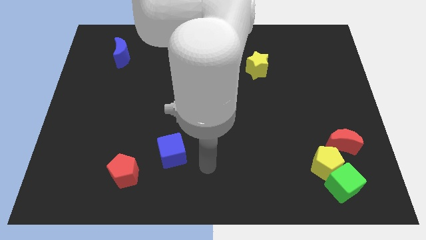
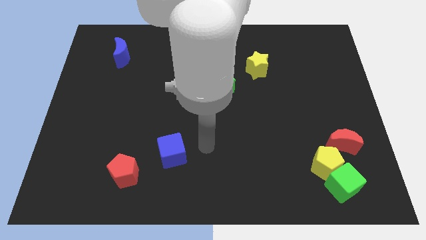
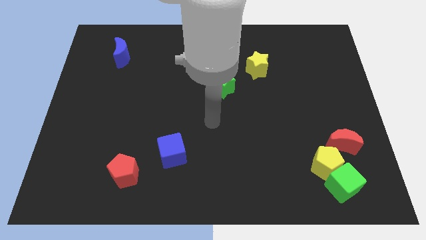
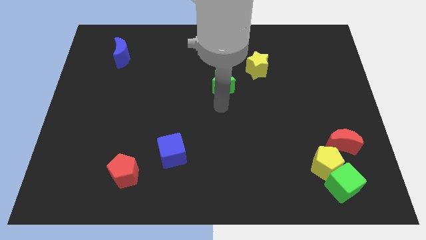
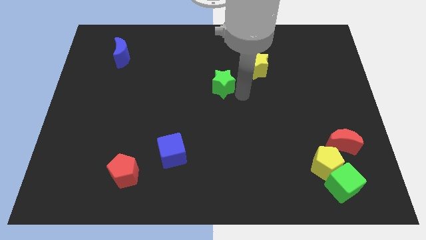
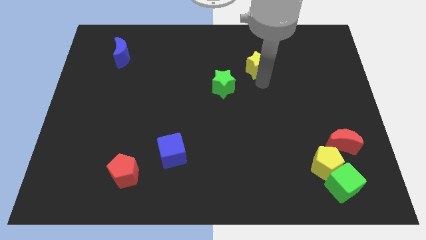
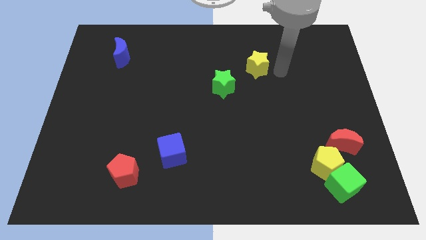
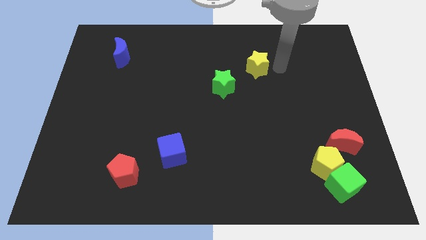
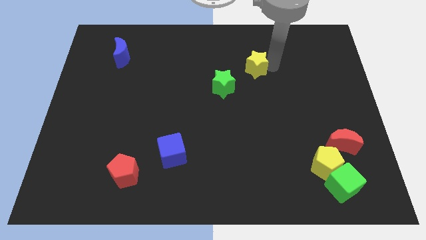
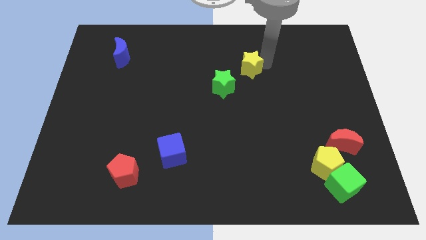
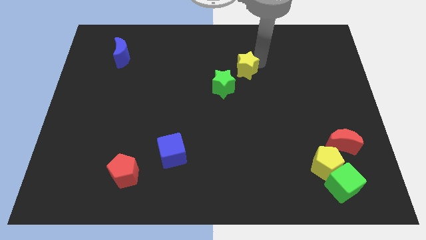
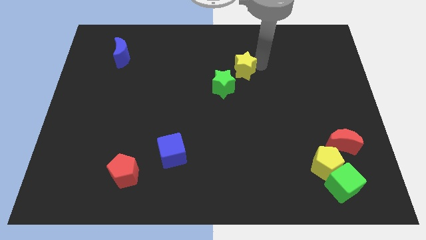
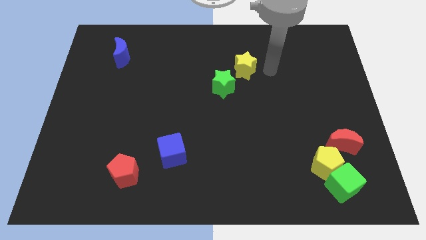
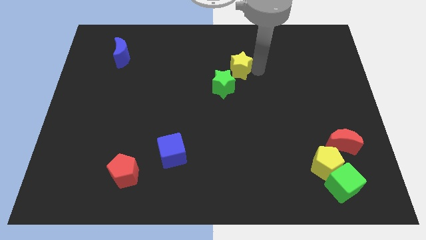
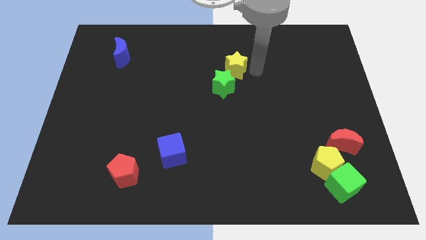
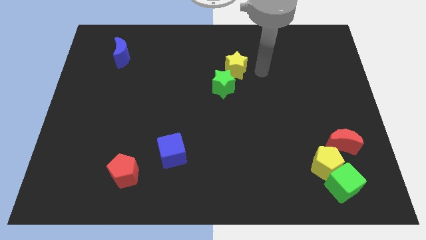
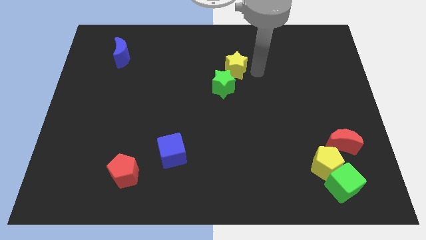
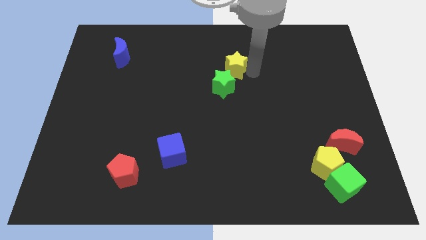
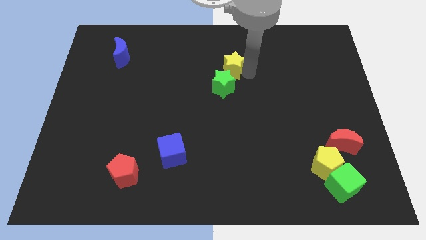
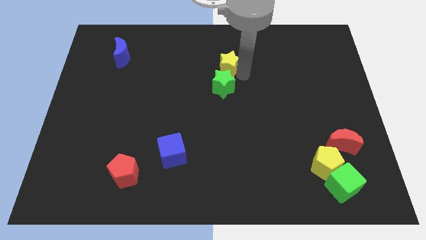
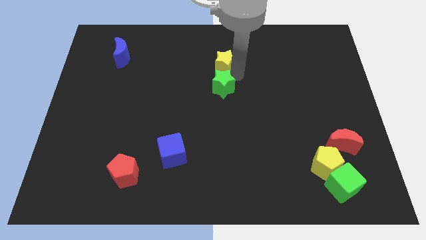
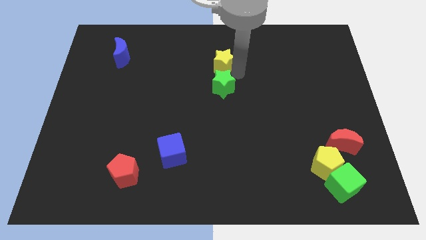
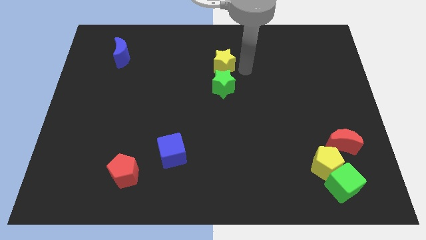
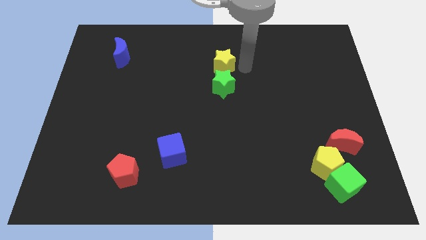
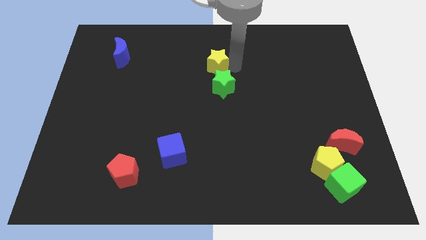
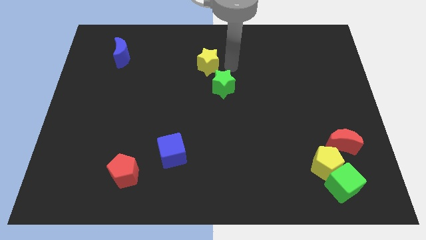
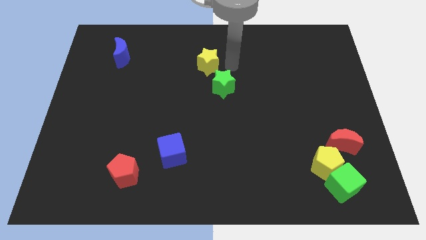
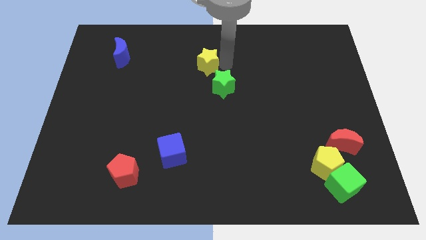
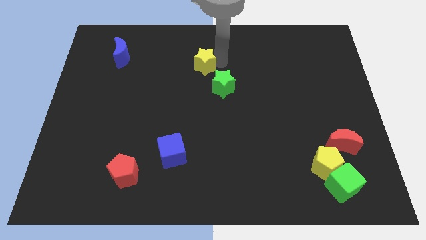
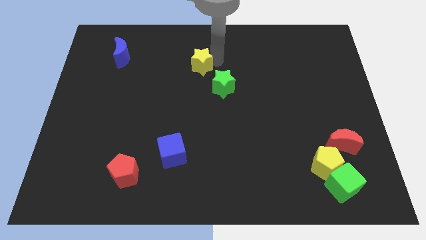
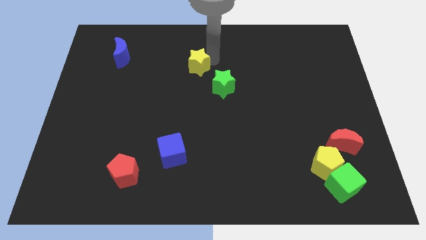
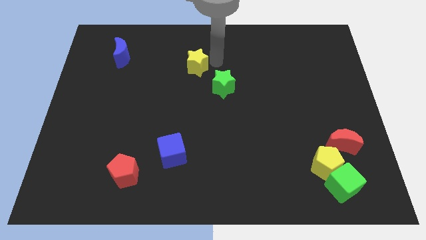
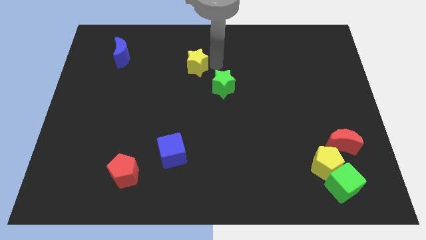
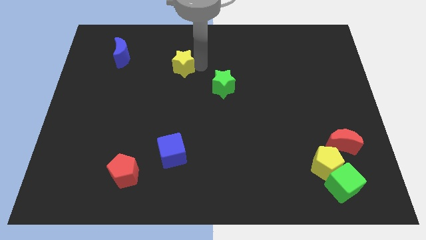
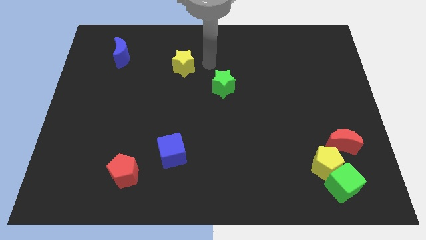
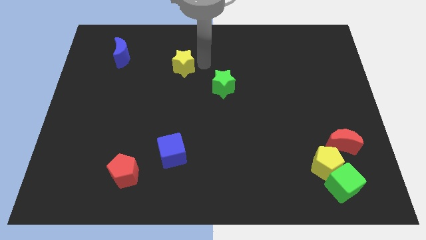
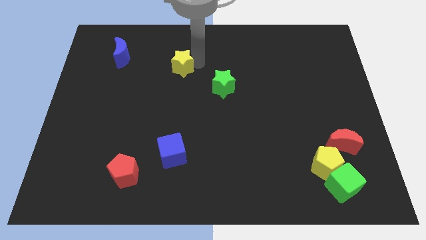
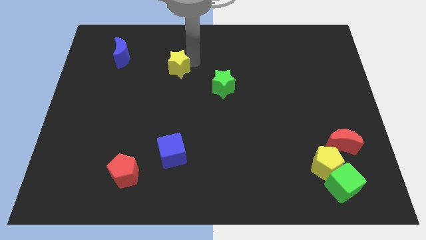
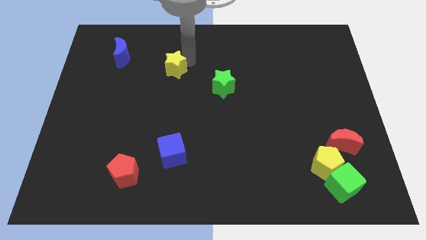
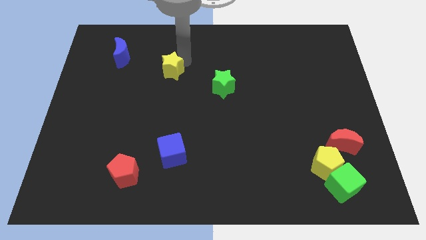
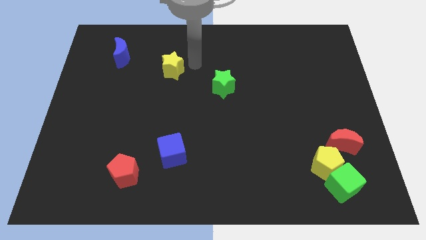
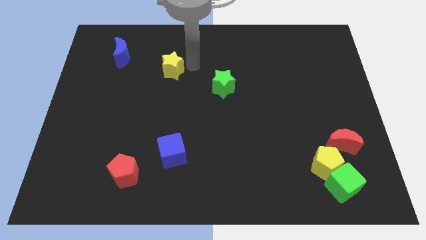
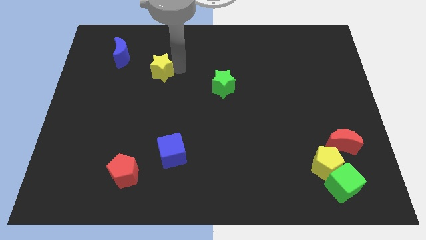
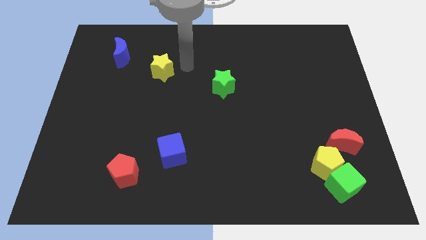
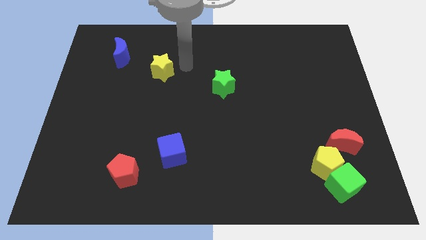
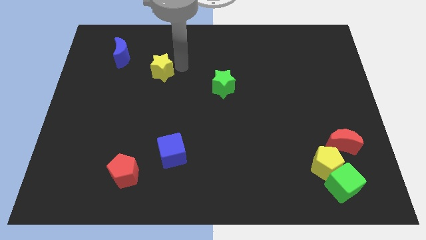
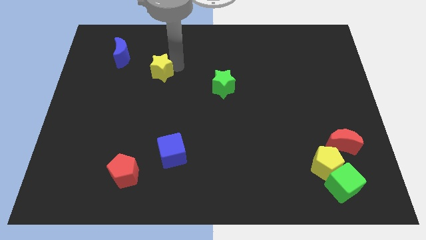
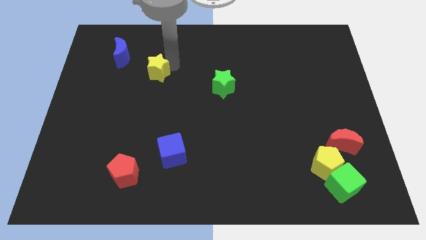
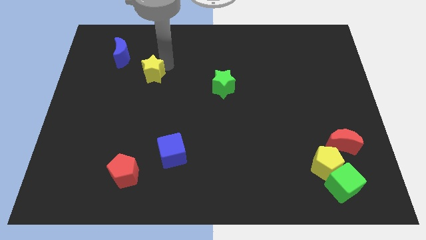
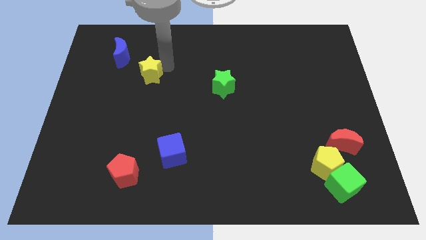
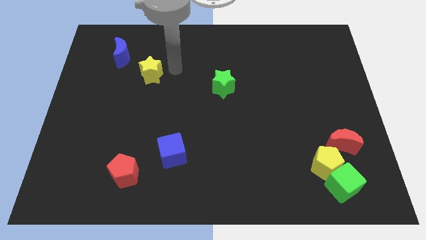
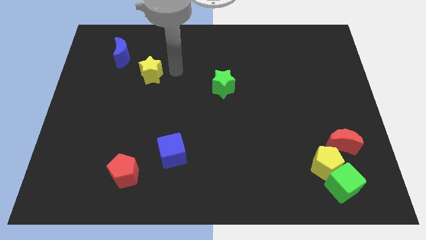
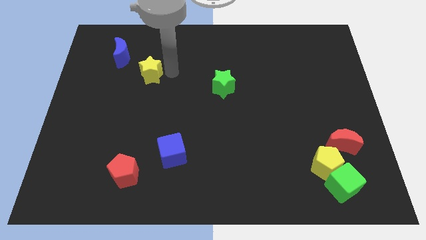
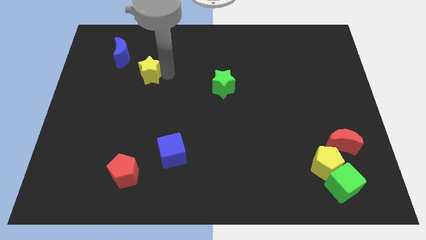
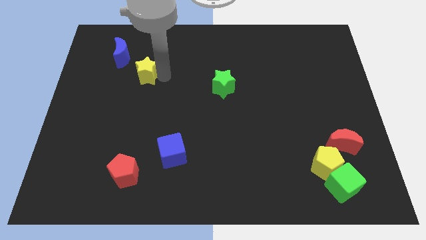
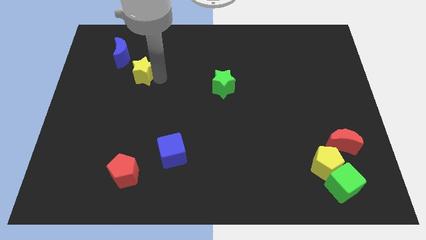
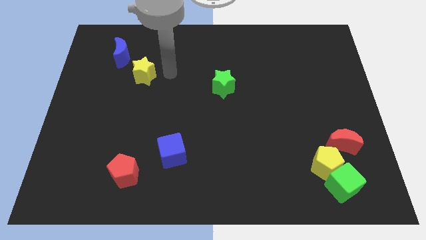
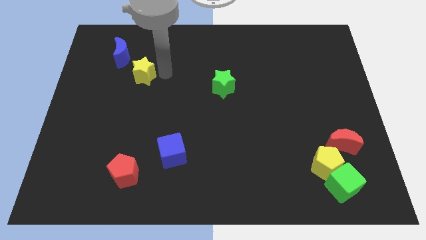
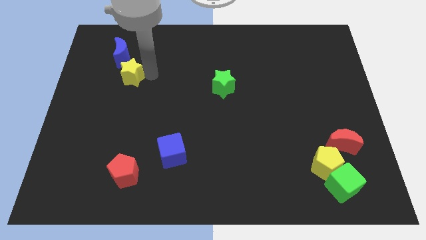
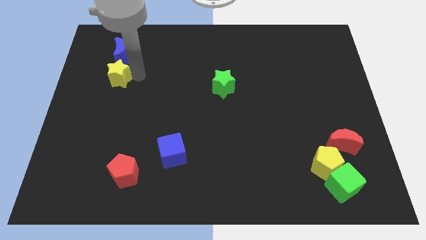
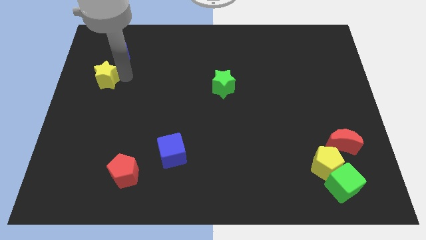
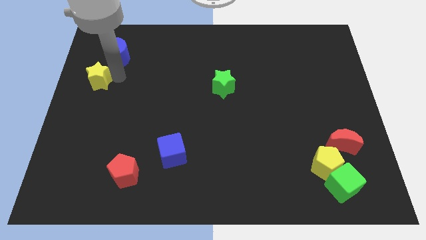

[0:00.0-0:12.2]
put the yellow star to the center left
